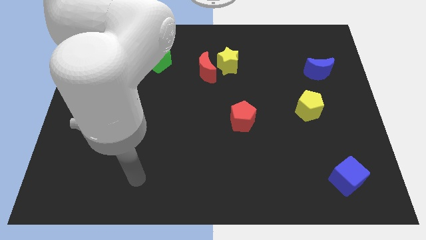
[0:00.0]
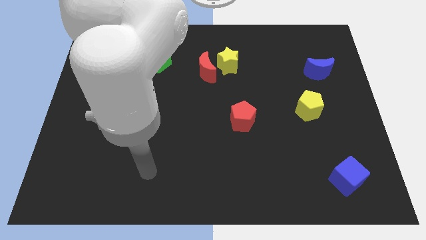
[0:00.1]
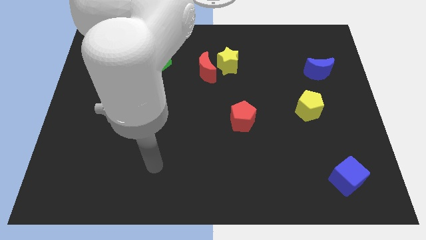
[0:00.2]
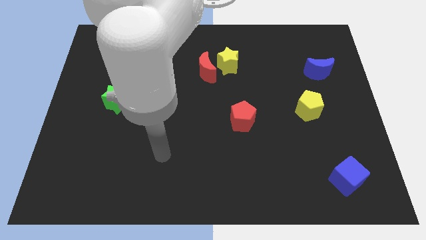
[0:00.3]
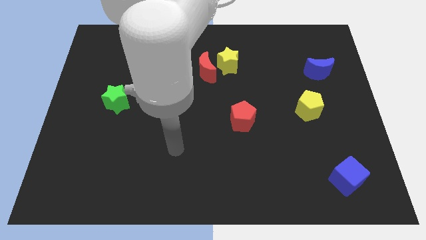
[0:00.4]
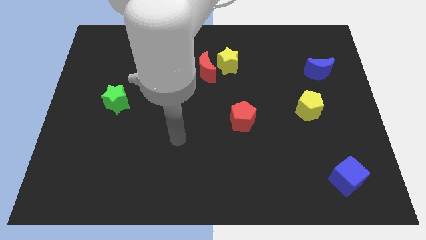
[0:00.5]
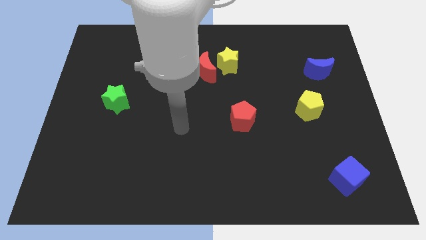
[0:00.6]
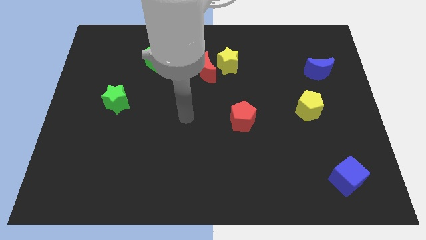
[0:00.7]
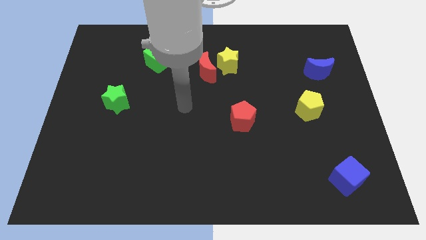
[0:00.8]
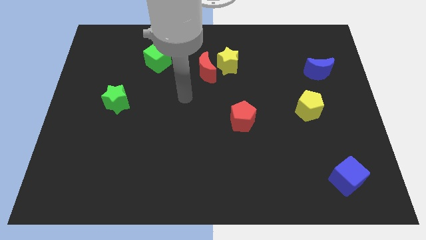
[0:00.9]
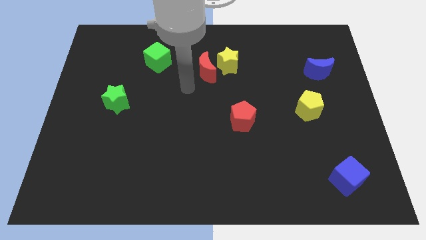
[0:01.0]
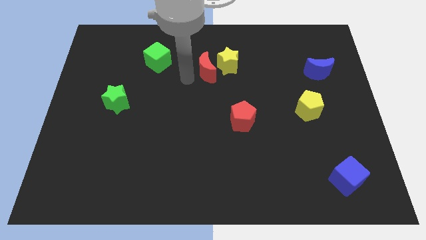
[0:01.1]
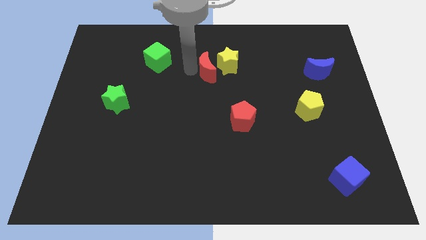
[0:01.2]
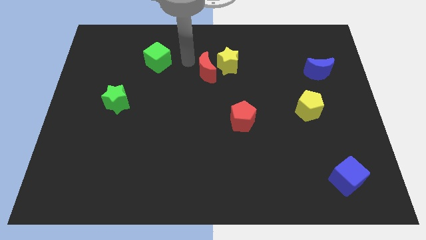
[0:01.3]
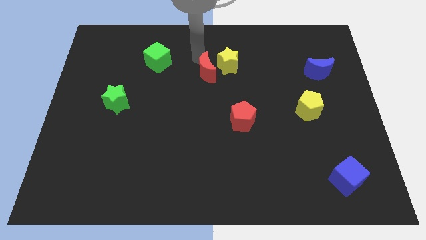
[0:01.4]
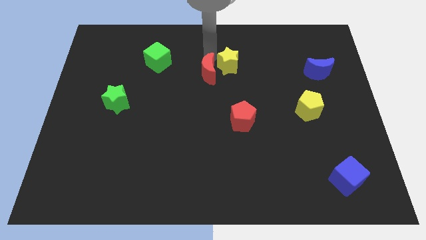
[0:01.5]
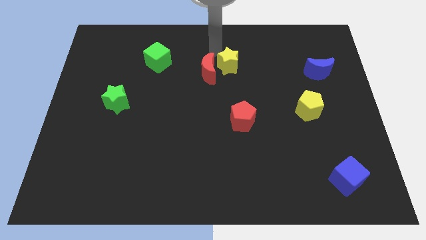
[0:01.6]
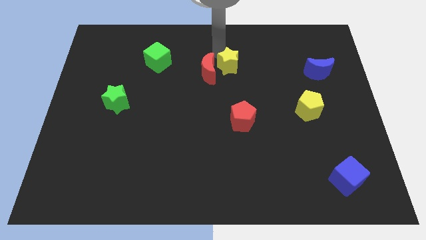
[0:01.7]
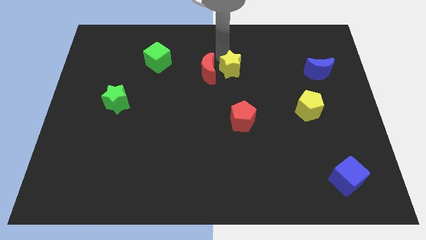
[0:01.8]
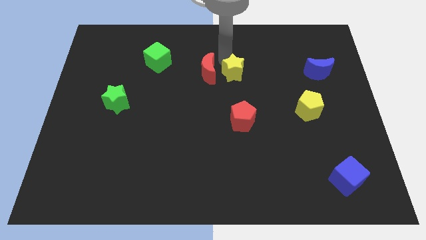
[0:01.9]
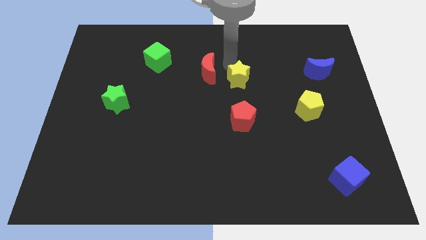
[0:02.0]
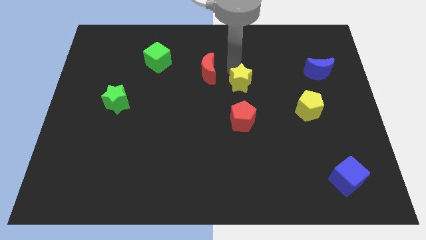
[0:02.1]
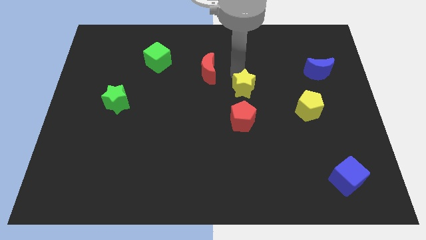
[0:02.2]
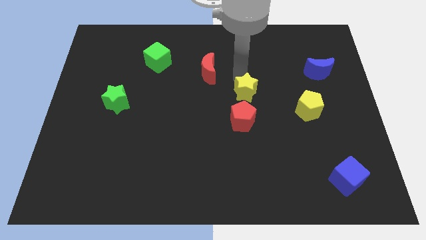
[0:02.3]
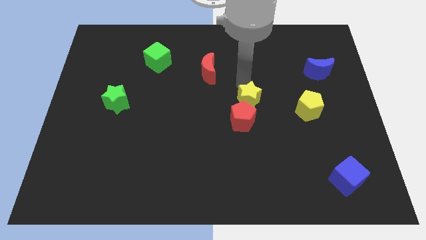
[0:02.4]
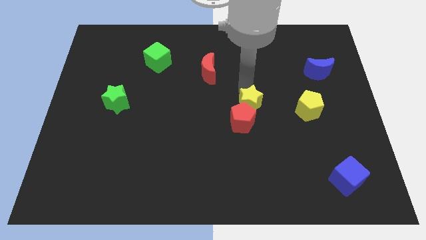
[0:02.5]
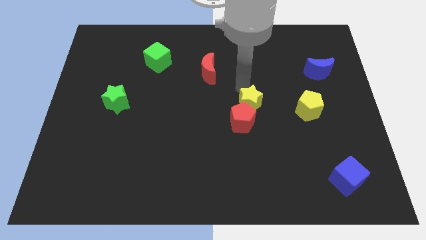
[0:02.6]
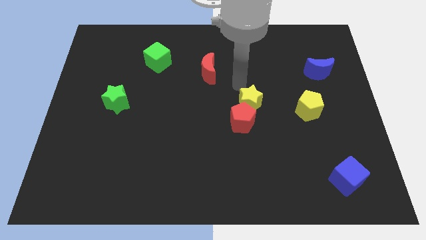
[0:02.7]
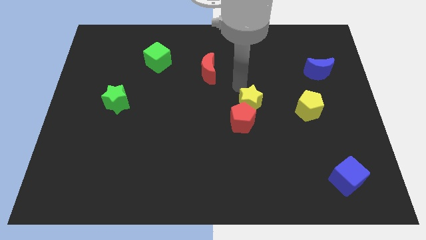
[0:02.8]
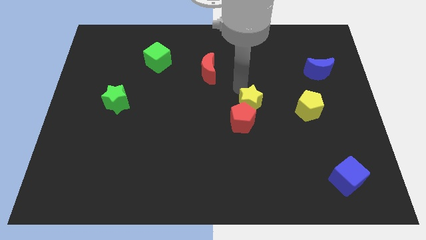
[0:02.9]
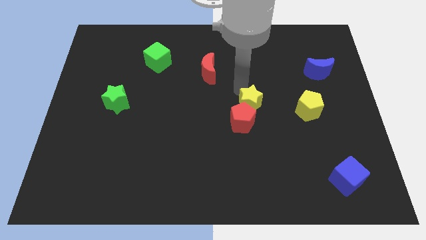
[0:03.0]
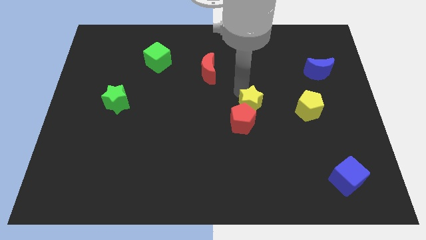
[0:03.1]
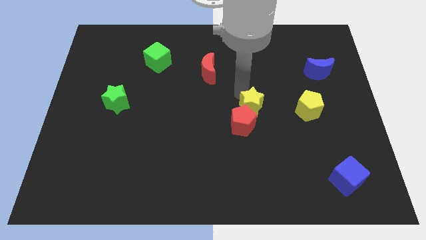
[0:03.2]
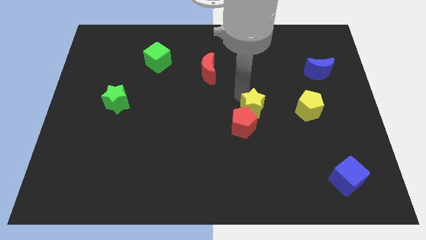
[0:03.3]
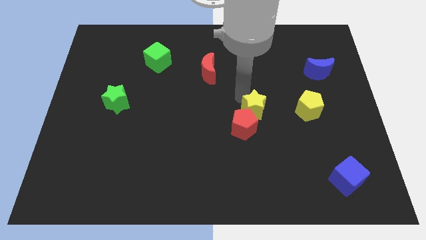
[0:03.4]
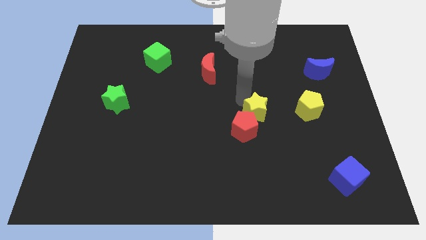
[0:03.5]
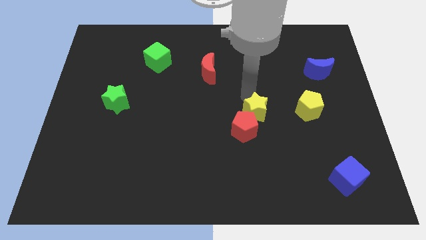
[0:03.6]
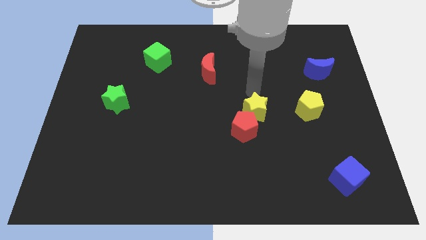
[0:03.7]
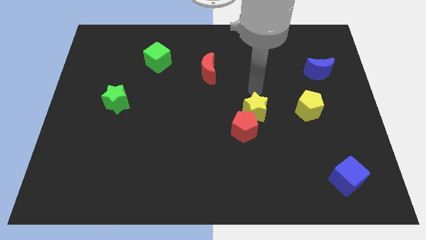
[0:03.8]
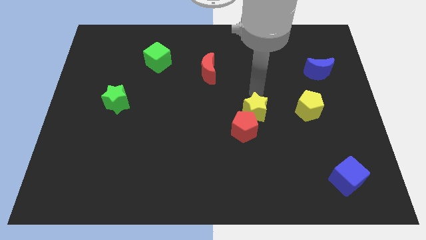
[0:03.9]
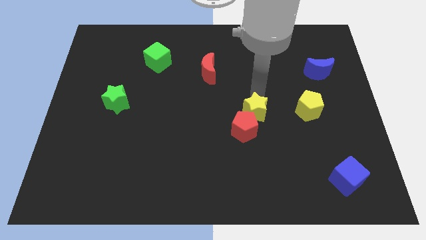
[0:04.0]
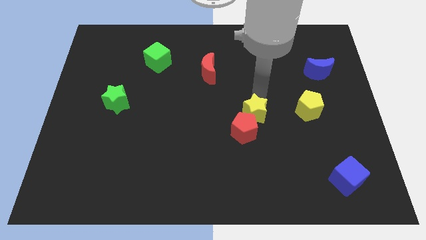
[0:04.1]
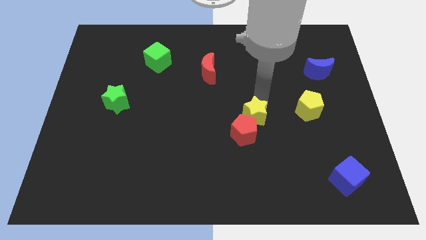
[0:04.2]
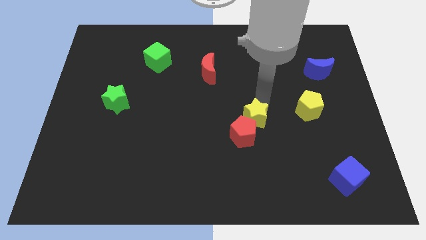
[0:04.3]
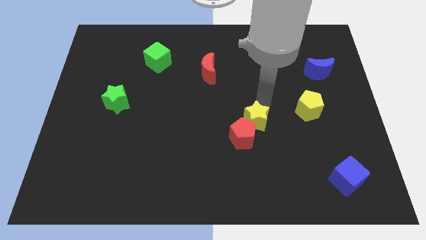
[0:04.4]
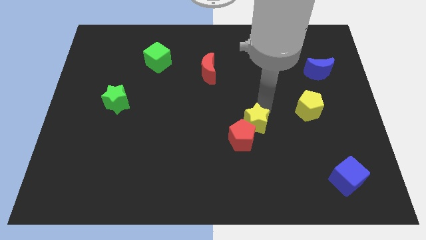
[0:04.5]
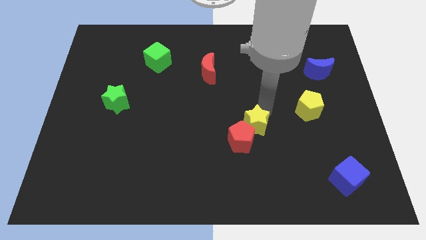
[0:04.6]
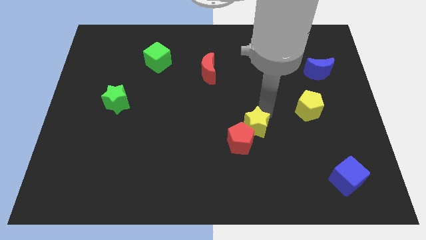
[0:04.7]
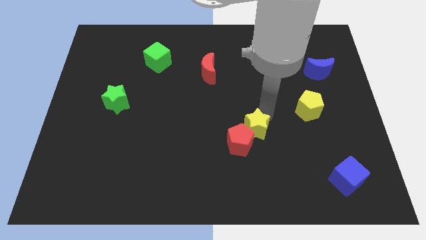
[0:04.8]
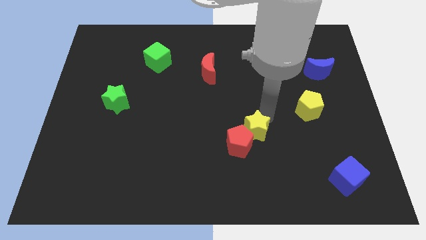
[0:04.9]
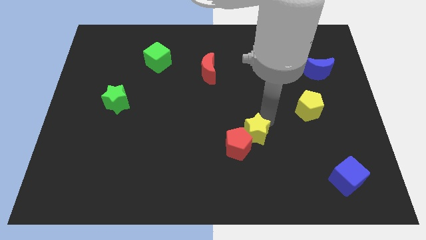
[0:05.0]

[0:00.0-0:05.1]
move the yellow star downwards

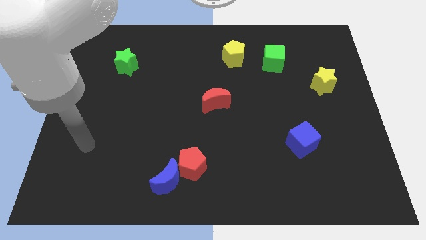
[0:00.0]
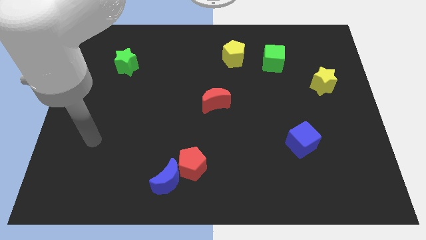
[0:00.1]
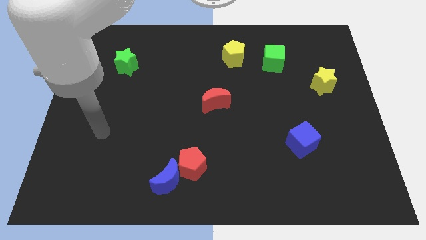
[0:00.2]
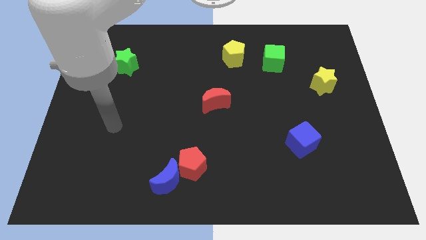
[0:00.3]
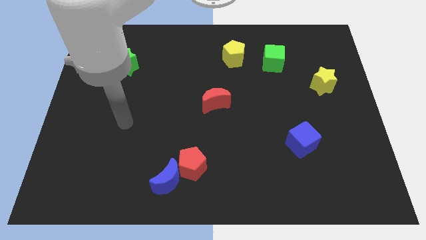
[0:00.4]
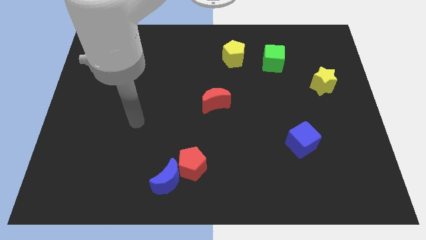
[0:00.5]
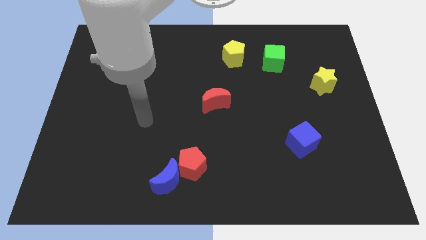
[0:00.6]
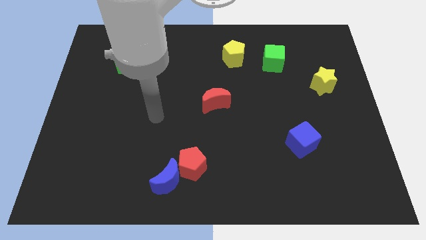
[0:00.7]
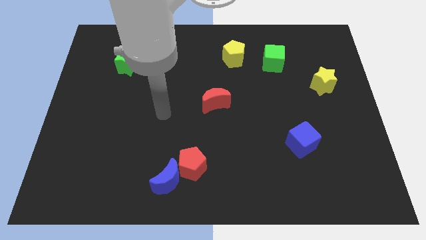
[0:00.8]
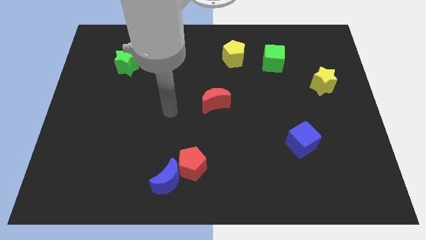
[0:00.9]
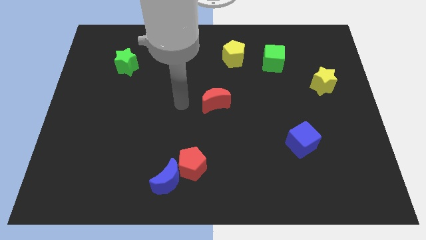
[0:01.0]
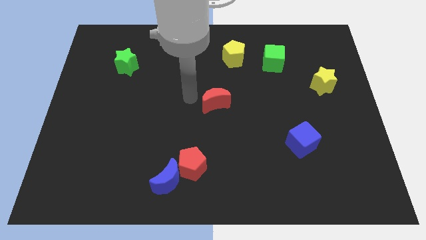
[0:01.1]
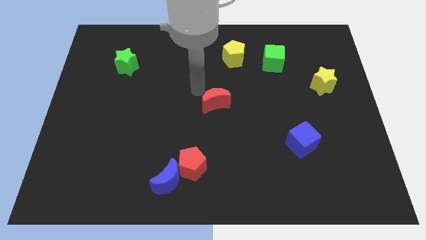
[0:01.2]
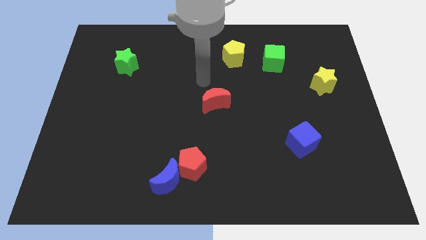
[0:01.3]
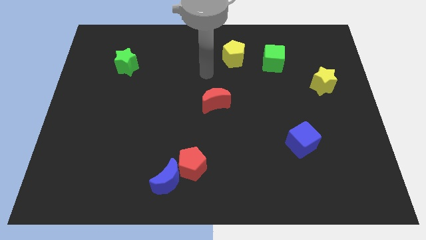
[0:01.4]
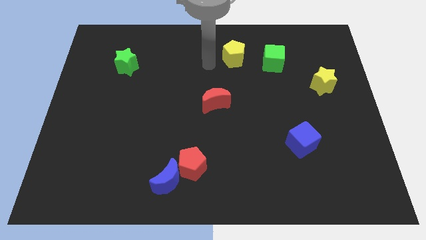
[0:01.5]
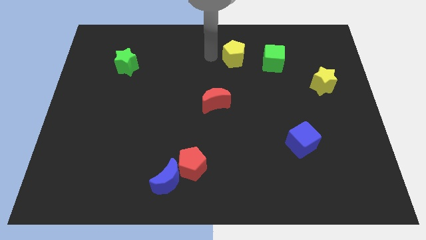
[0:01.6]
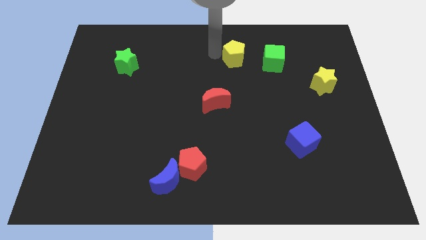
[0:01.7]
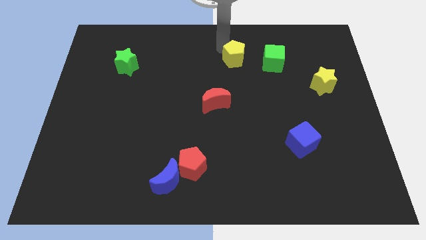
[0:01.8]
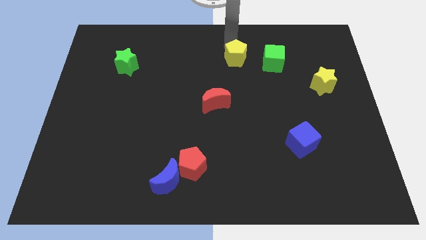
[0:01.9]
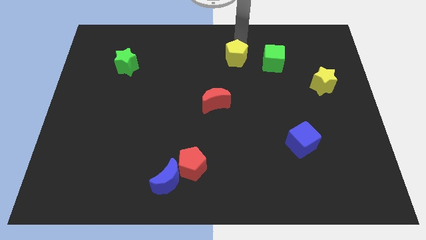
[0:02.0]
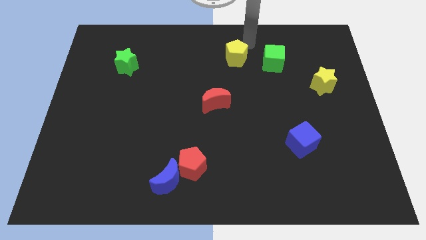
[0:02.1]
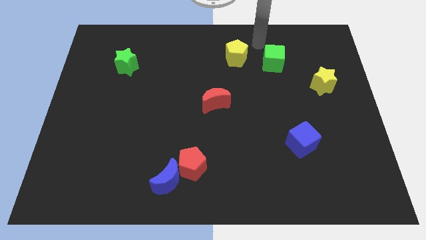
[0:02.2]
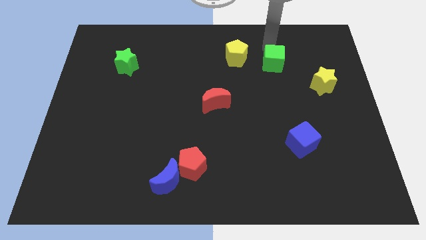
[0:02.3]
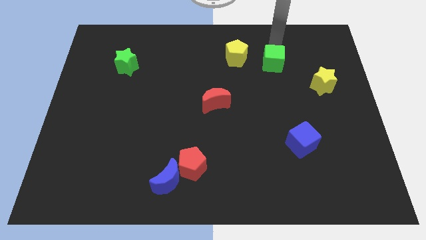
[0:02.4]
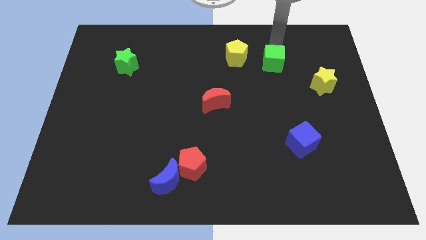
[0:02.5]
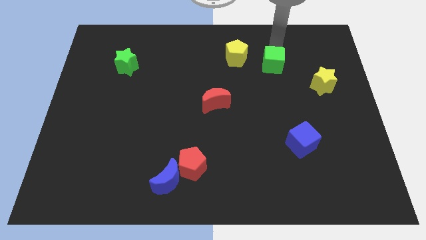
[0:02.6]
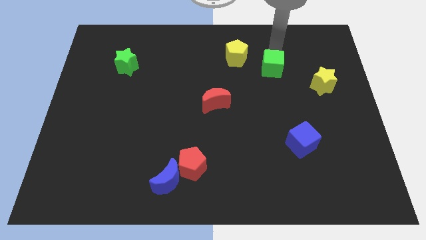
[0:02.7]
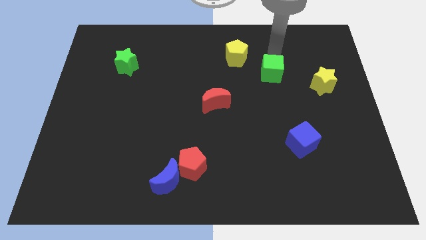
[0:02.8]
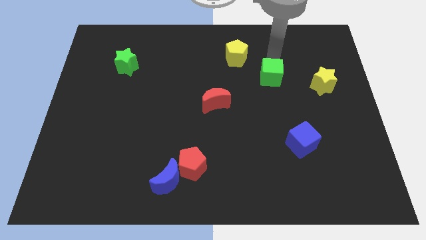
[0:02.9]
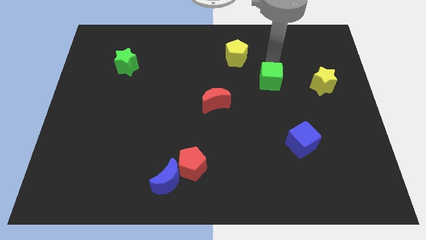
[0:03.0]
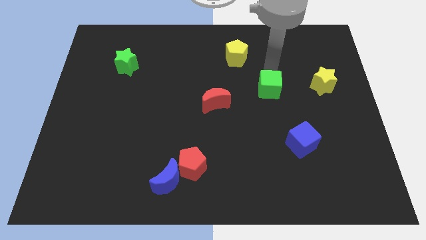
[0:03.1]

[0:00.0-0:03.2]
push the green cube downwards slightly
